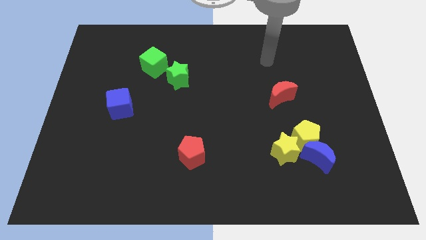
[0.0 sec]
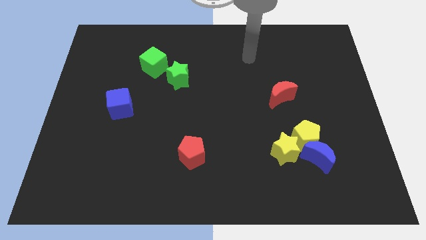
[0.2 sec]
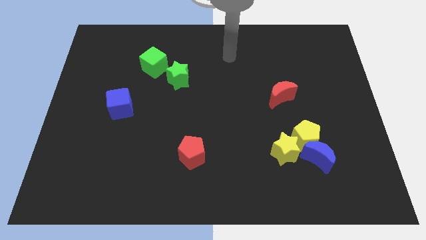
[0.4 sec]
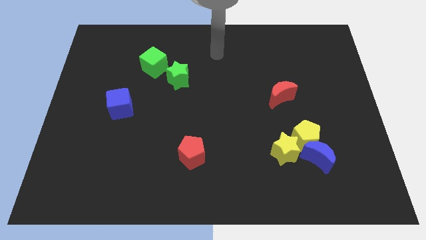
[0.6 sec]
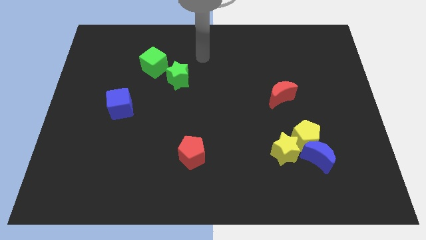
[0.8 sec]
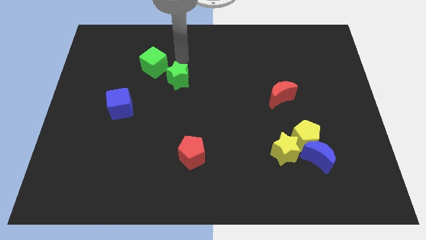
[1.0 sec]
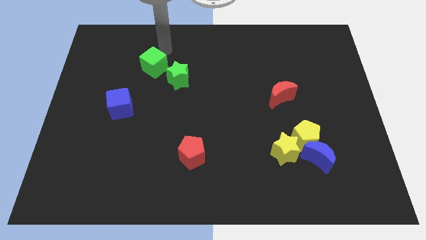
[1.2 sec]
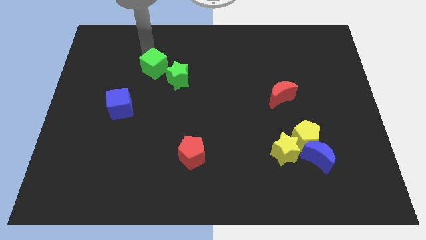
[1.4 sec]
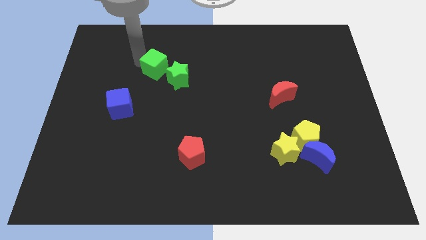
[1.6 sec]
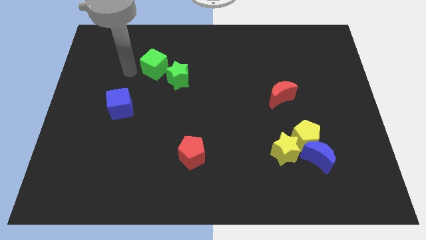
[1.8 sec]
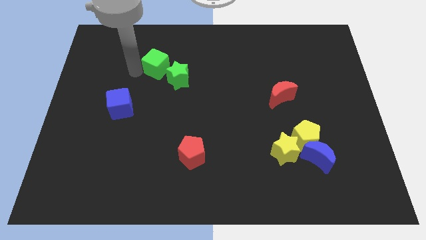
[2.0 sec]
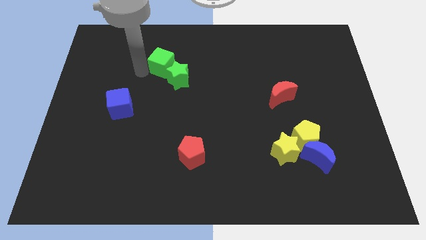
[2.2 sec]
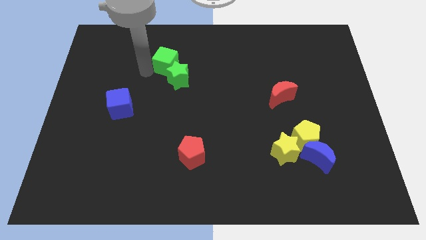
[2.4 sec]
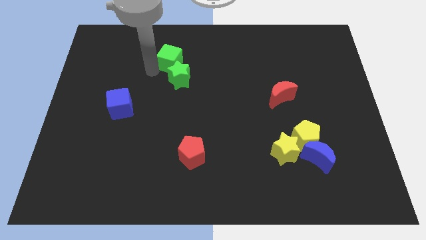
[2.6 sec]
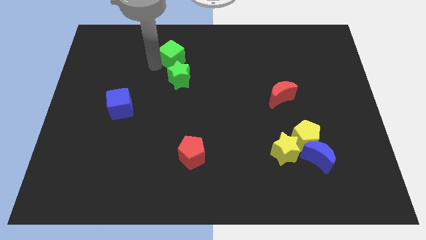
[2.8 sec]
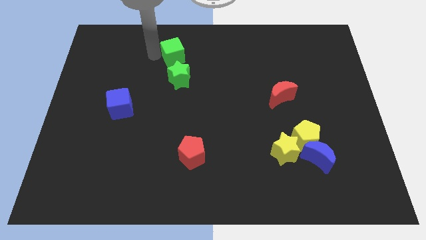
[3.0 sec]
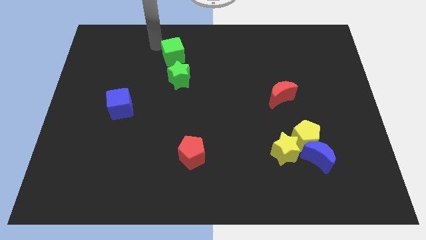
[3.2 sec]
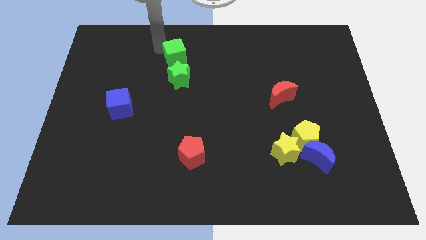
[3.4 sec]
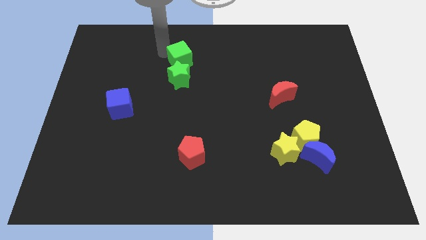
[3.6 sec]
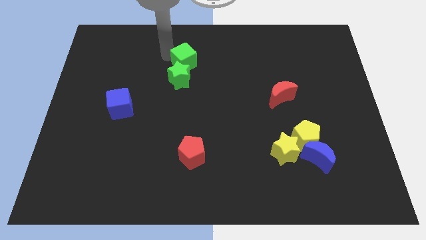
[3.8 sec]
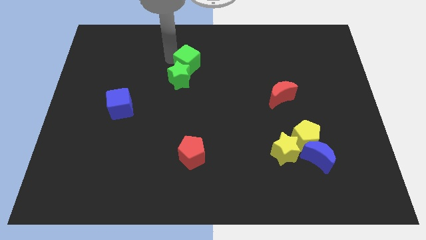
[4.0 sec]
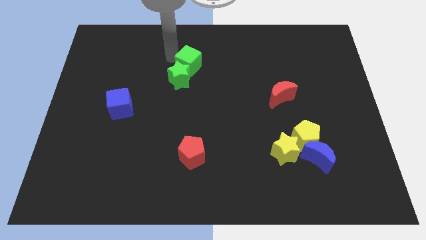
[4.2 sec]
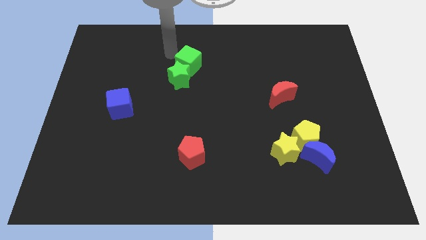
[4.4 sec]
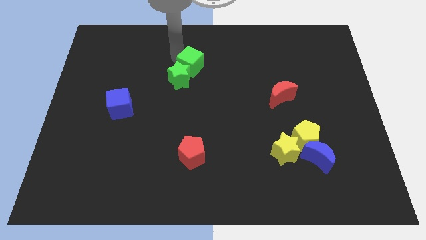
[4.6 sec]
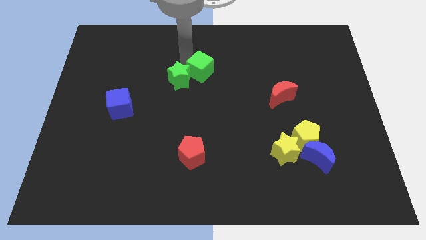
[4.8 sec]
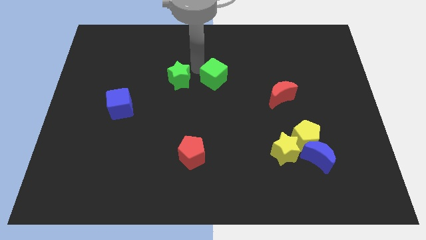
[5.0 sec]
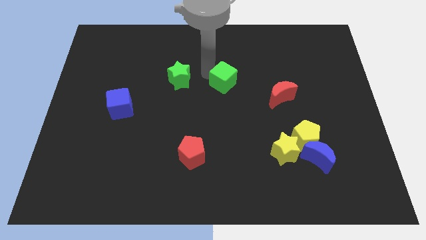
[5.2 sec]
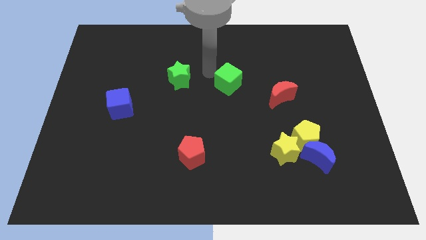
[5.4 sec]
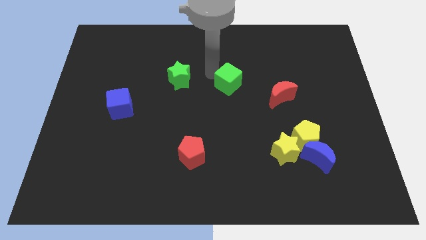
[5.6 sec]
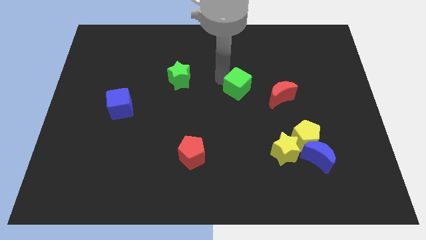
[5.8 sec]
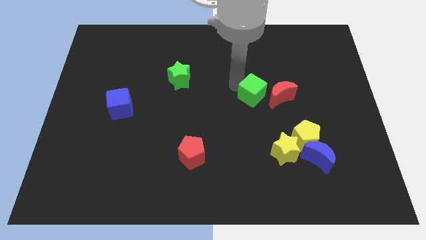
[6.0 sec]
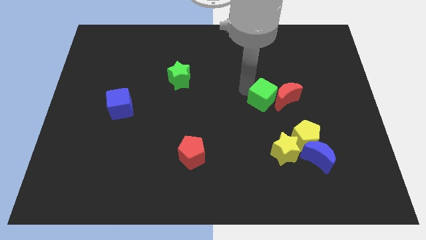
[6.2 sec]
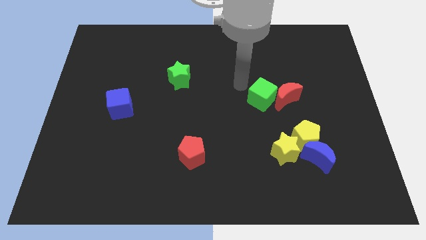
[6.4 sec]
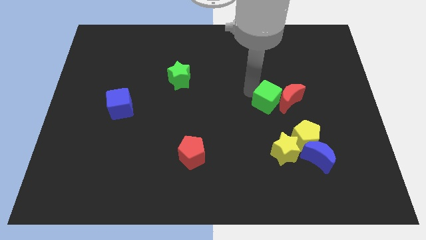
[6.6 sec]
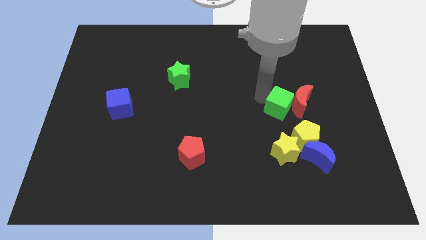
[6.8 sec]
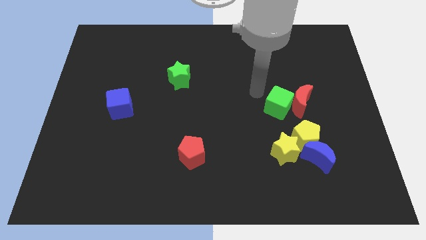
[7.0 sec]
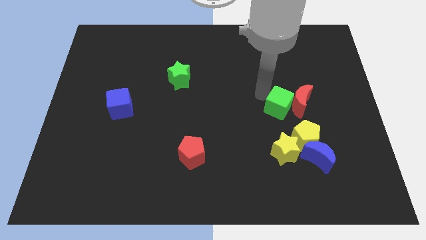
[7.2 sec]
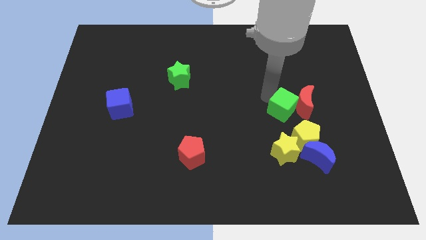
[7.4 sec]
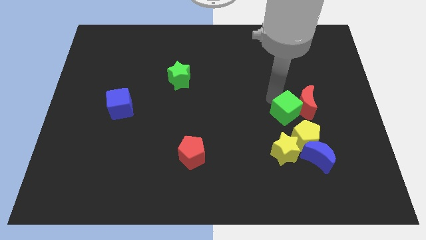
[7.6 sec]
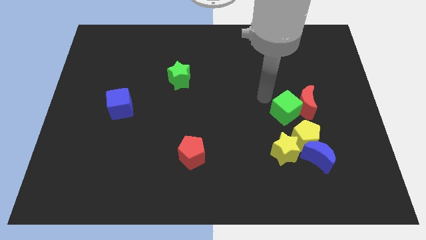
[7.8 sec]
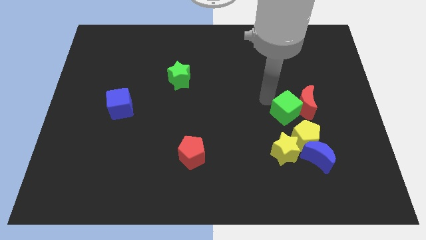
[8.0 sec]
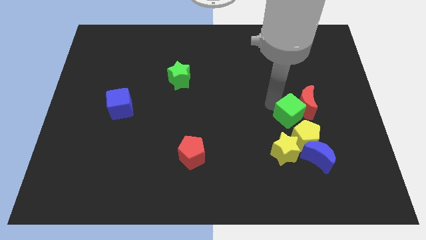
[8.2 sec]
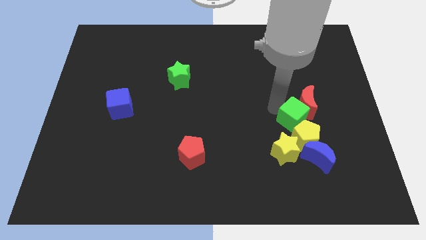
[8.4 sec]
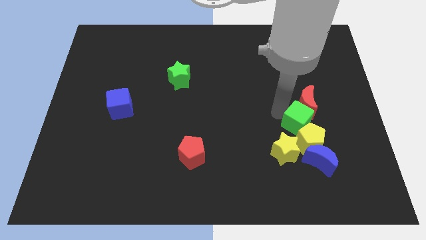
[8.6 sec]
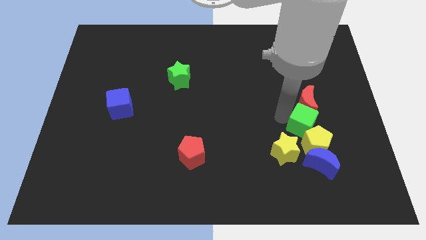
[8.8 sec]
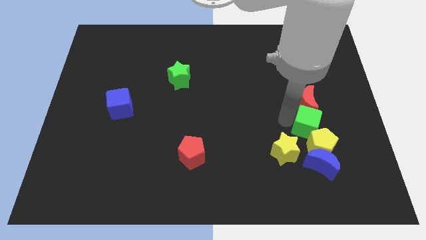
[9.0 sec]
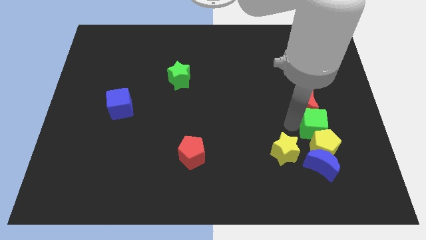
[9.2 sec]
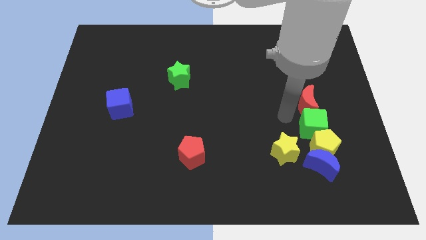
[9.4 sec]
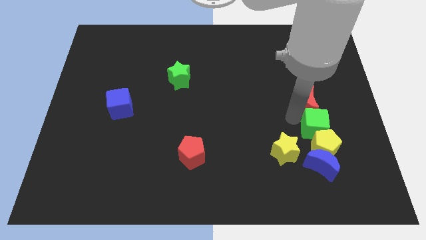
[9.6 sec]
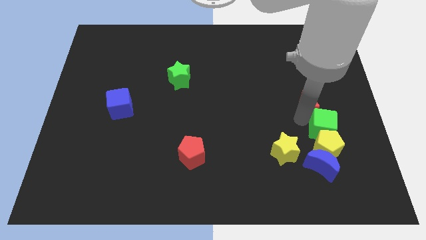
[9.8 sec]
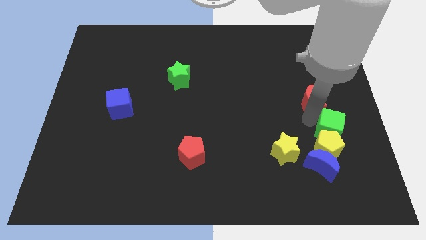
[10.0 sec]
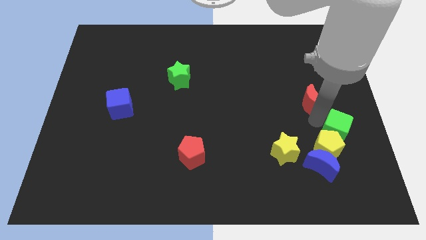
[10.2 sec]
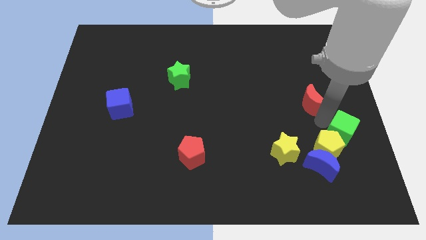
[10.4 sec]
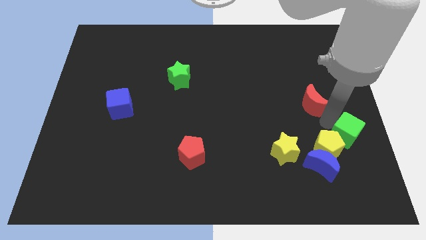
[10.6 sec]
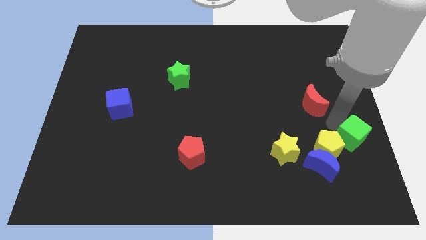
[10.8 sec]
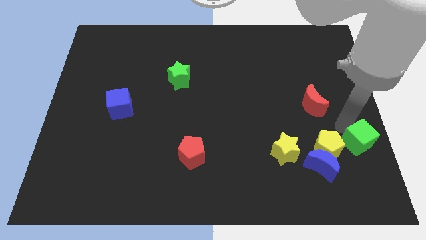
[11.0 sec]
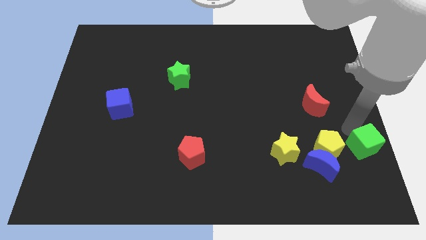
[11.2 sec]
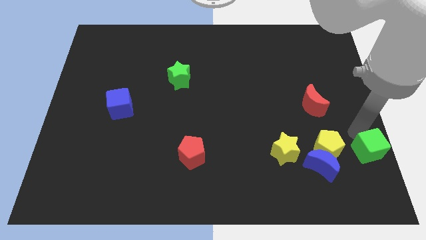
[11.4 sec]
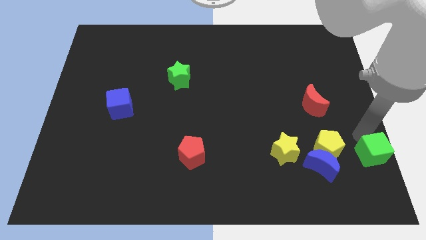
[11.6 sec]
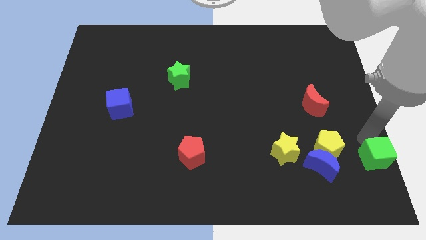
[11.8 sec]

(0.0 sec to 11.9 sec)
push the green cube to the bottom right
